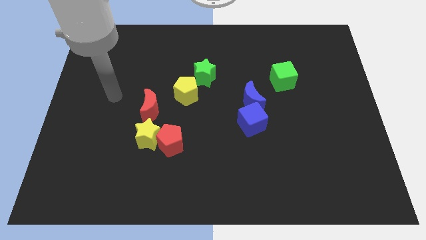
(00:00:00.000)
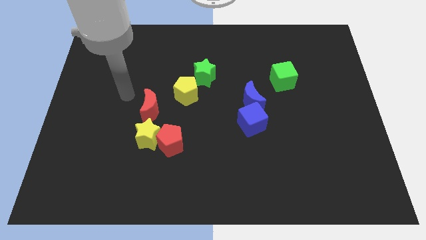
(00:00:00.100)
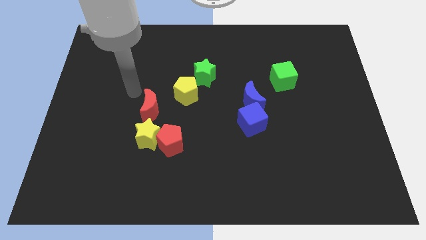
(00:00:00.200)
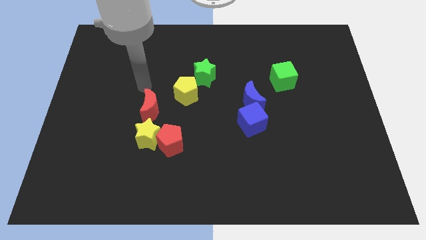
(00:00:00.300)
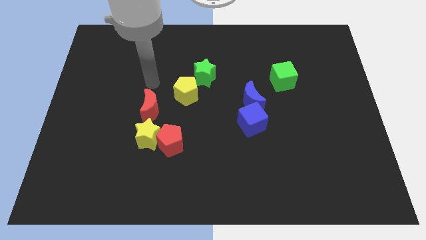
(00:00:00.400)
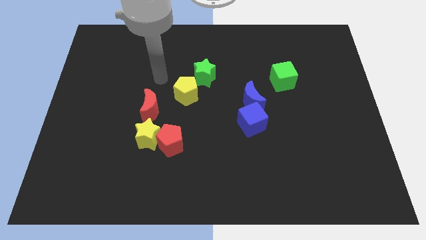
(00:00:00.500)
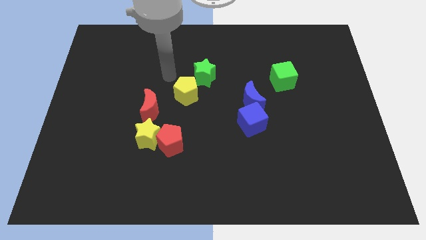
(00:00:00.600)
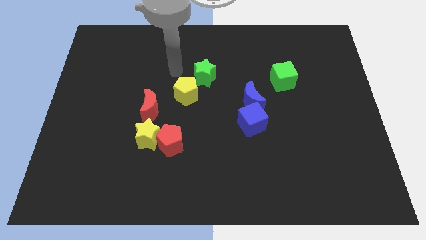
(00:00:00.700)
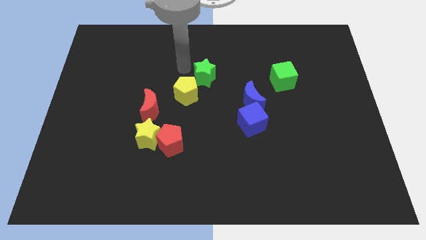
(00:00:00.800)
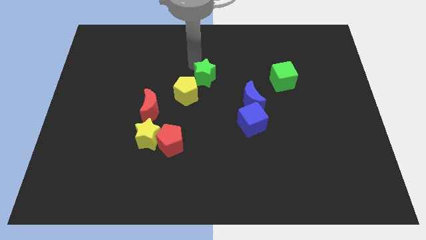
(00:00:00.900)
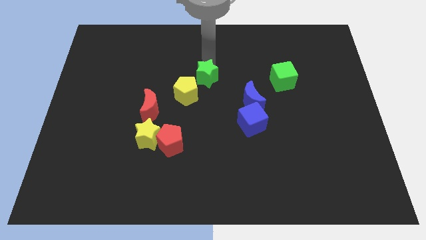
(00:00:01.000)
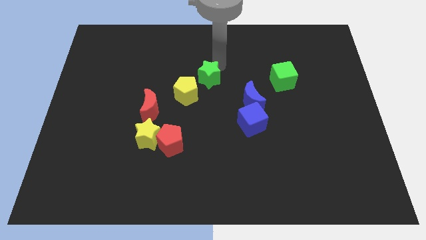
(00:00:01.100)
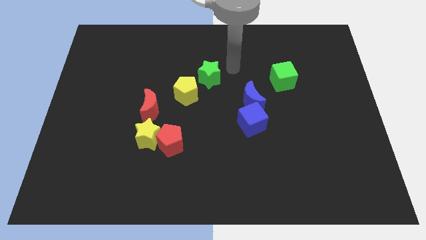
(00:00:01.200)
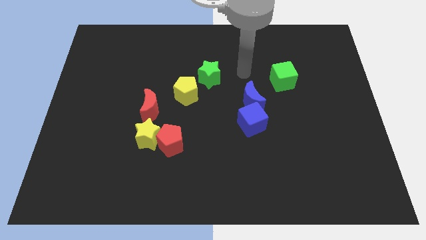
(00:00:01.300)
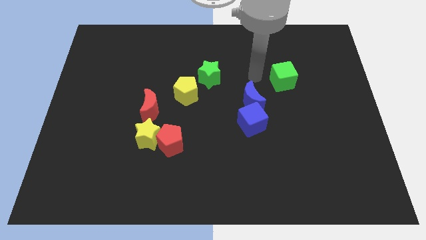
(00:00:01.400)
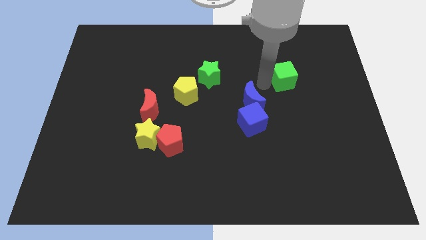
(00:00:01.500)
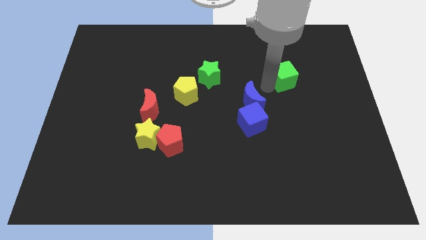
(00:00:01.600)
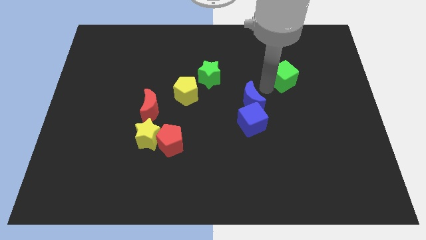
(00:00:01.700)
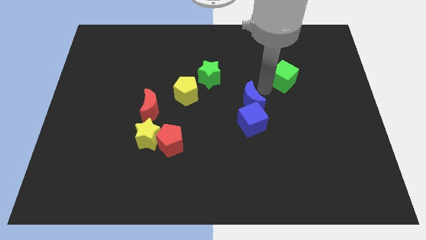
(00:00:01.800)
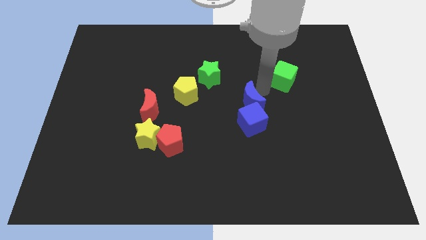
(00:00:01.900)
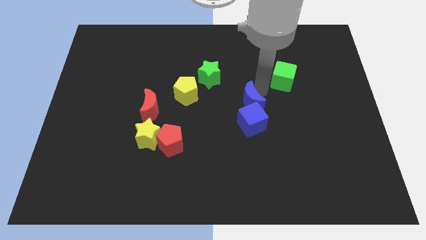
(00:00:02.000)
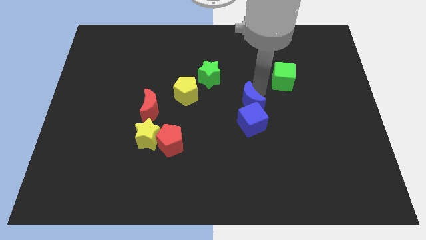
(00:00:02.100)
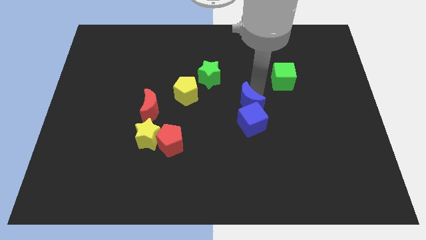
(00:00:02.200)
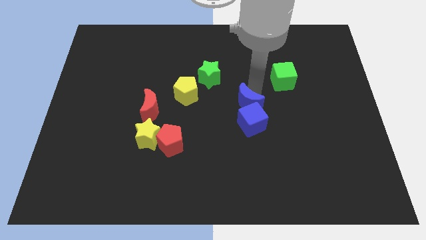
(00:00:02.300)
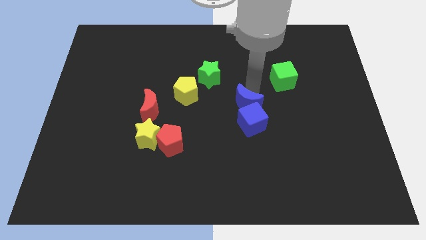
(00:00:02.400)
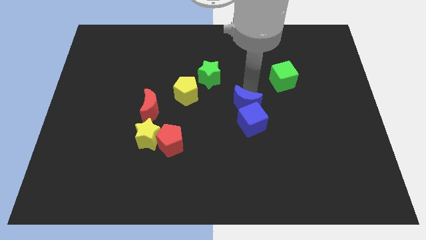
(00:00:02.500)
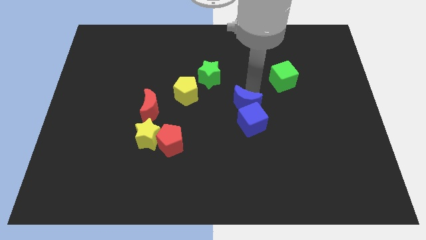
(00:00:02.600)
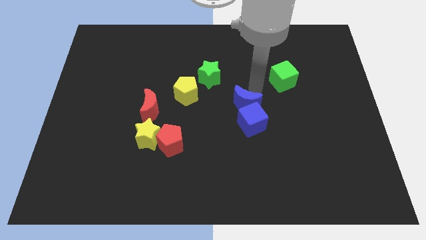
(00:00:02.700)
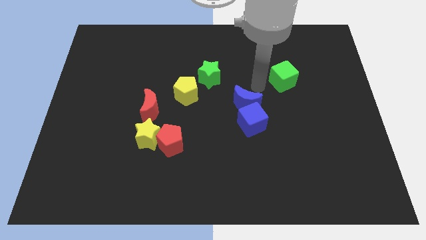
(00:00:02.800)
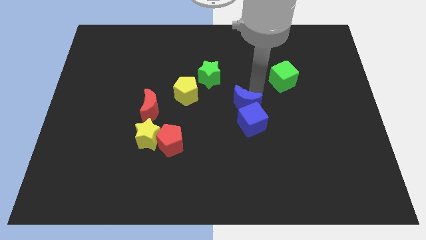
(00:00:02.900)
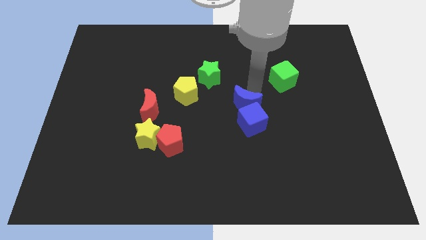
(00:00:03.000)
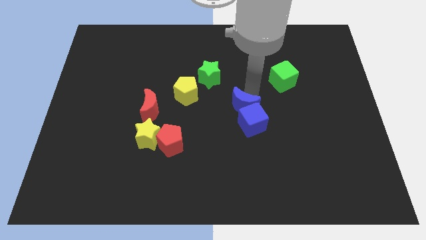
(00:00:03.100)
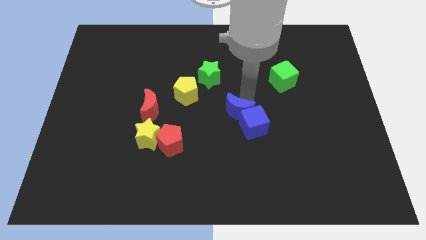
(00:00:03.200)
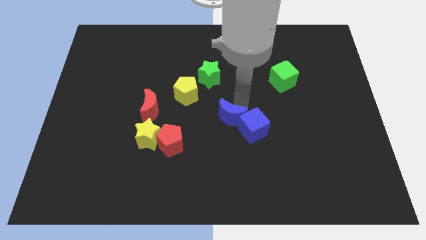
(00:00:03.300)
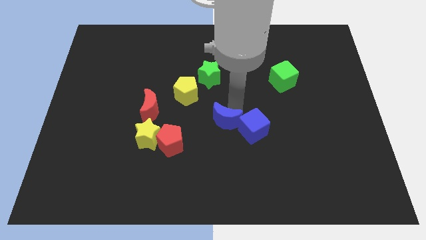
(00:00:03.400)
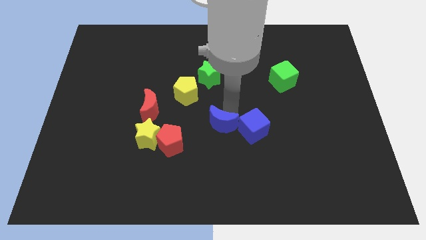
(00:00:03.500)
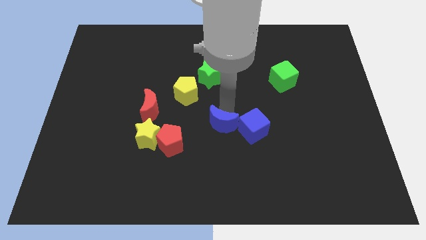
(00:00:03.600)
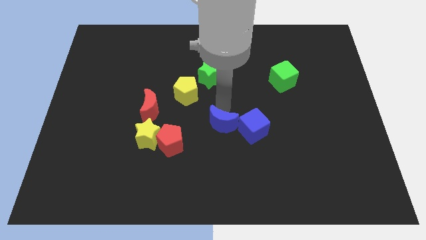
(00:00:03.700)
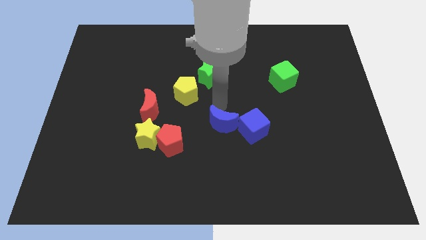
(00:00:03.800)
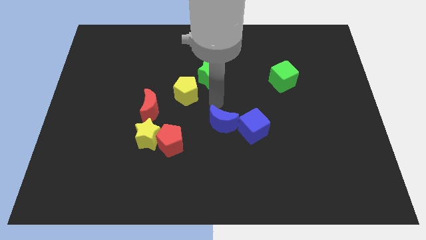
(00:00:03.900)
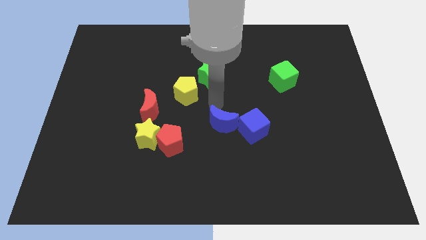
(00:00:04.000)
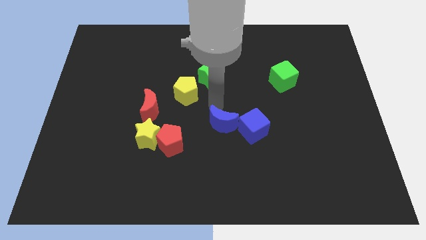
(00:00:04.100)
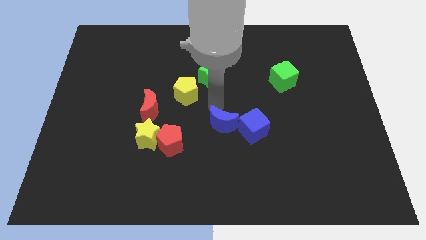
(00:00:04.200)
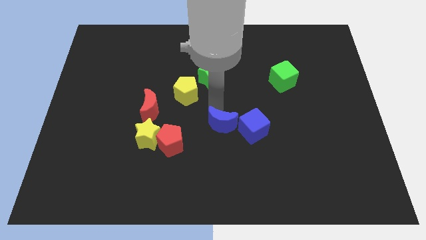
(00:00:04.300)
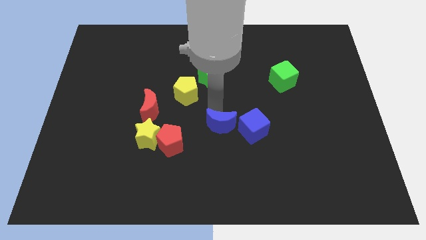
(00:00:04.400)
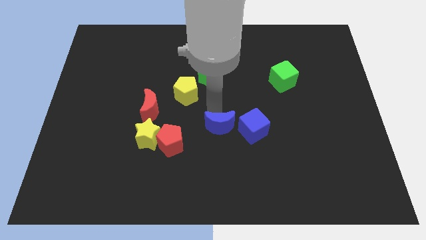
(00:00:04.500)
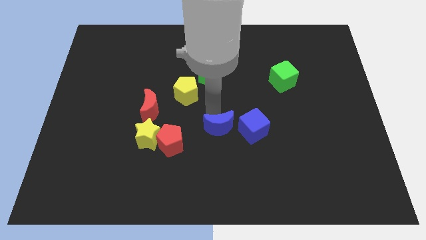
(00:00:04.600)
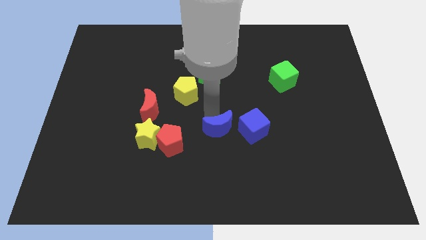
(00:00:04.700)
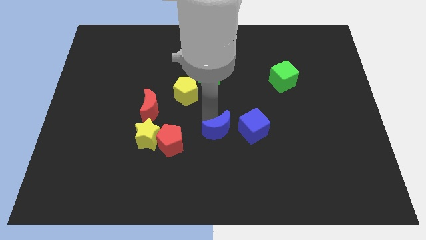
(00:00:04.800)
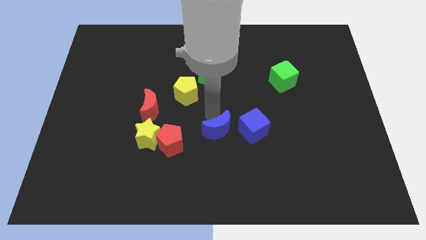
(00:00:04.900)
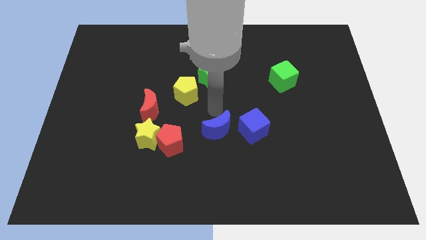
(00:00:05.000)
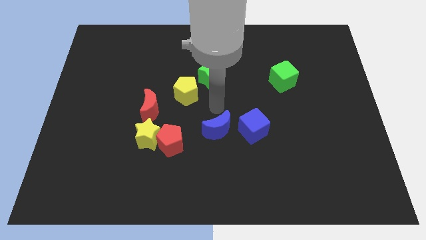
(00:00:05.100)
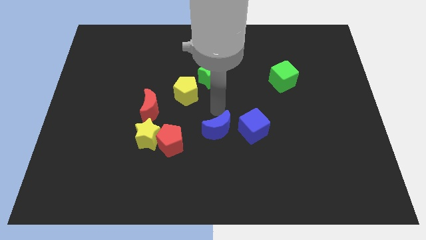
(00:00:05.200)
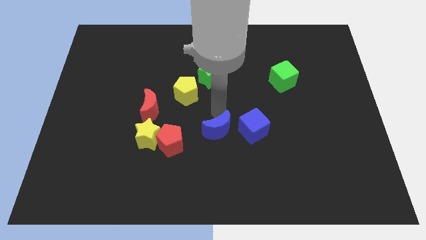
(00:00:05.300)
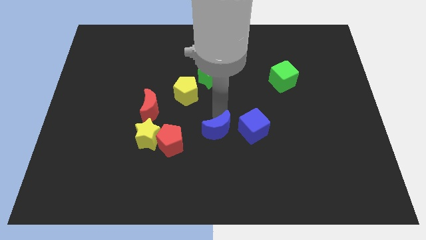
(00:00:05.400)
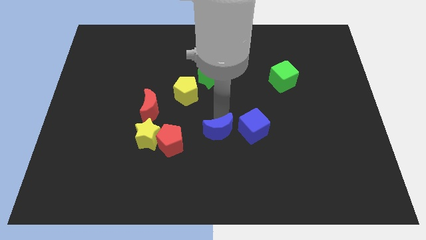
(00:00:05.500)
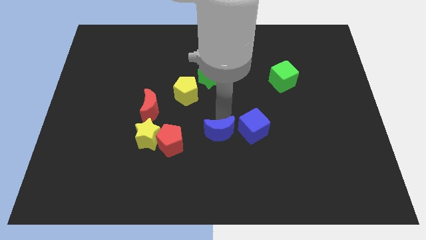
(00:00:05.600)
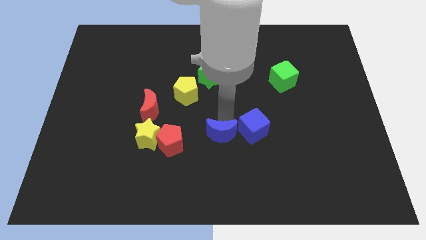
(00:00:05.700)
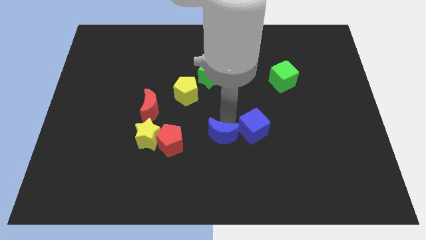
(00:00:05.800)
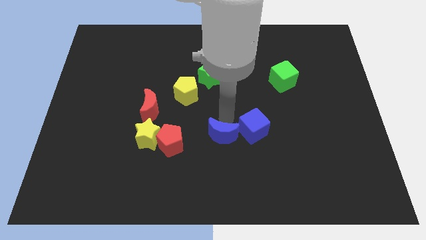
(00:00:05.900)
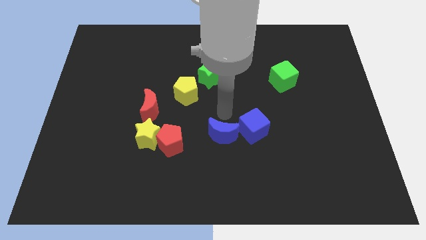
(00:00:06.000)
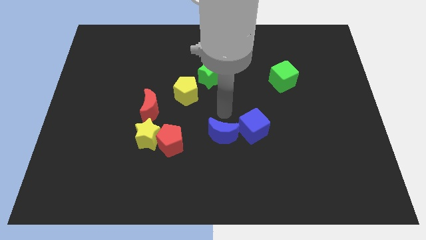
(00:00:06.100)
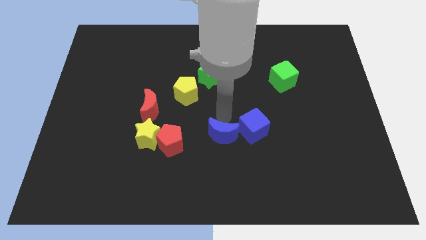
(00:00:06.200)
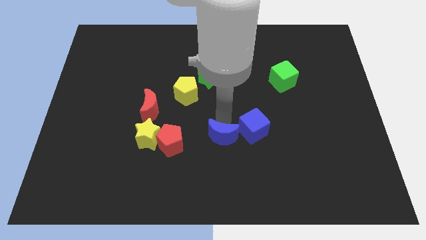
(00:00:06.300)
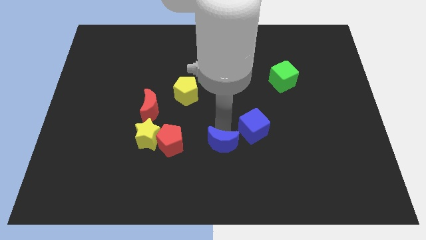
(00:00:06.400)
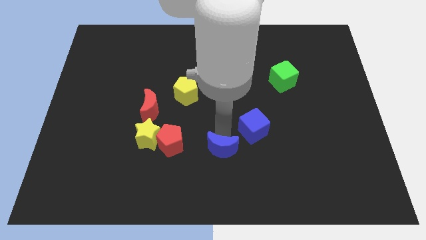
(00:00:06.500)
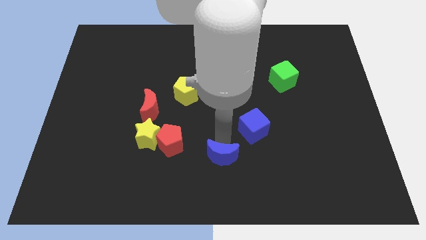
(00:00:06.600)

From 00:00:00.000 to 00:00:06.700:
move the blue moon to the bottom
